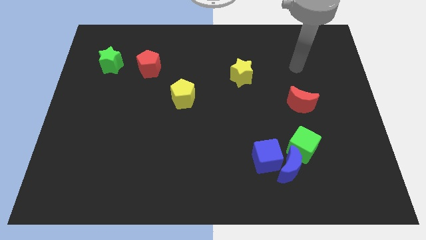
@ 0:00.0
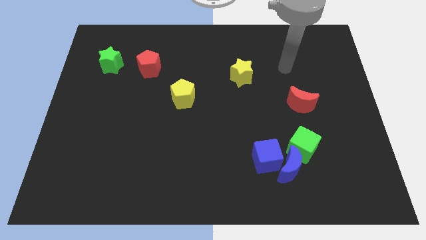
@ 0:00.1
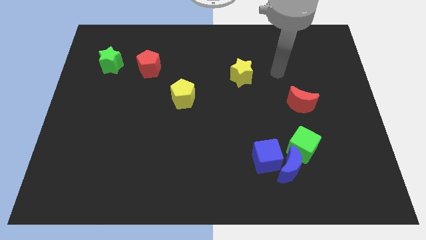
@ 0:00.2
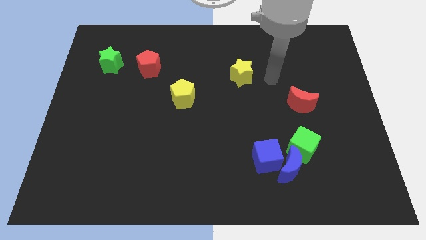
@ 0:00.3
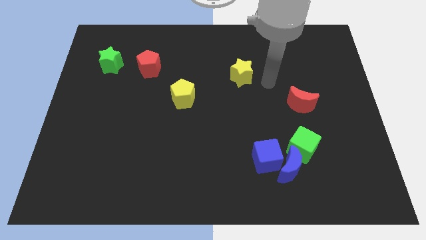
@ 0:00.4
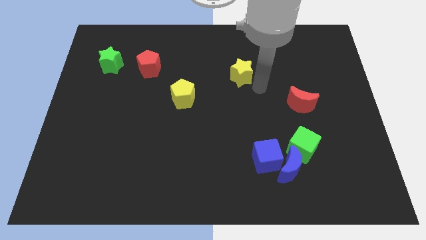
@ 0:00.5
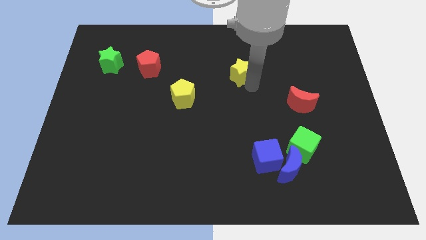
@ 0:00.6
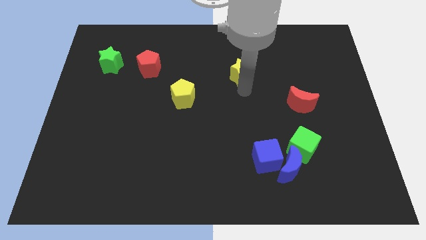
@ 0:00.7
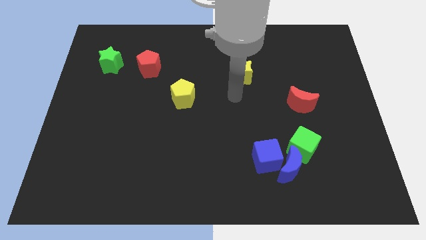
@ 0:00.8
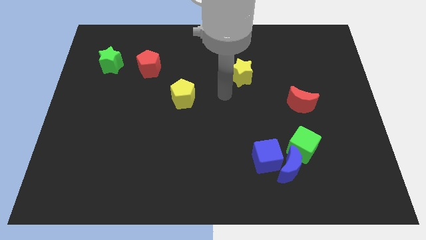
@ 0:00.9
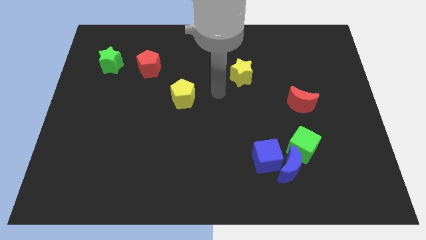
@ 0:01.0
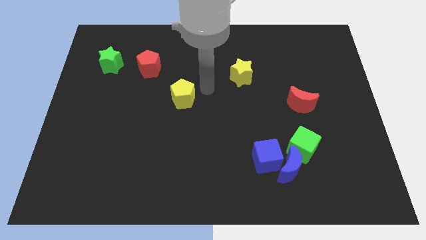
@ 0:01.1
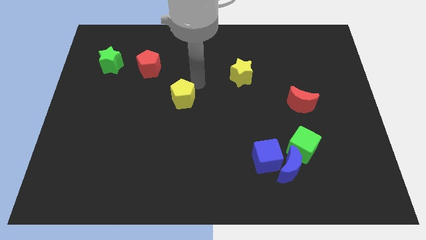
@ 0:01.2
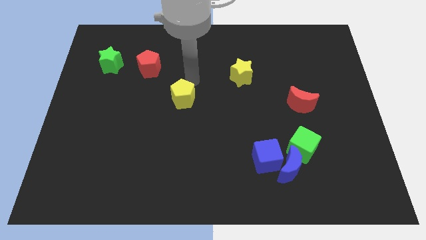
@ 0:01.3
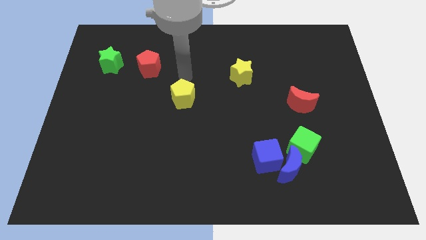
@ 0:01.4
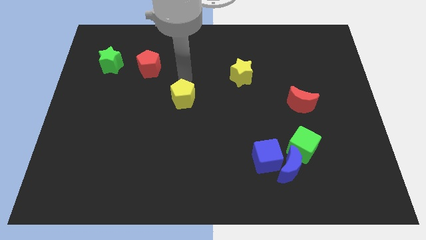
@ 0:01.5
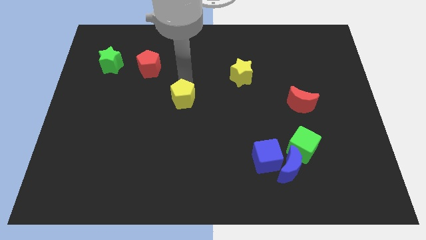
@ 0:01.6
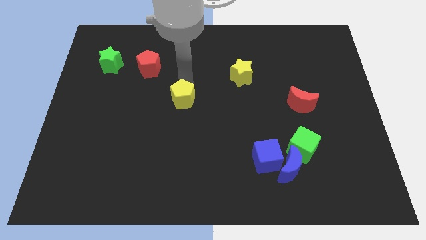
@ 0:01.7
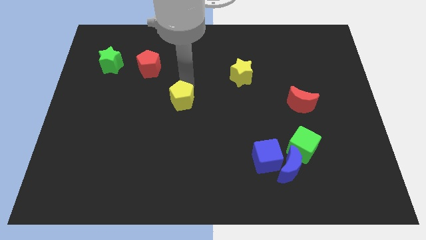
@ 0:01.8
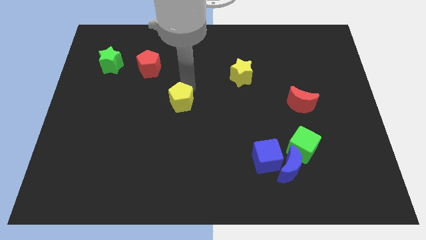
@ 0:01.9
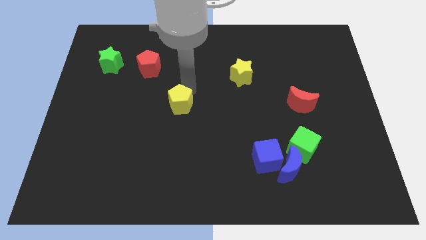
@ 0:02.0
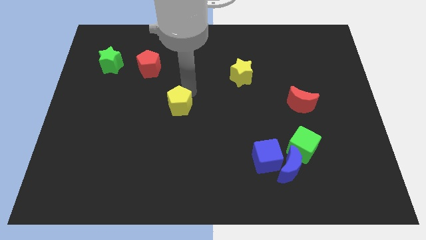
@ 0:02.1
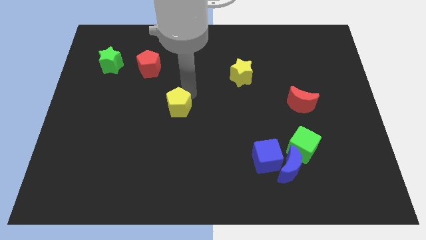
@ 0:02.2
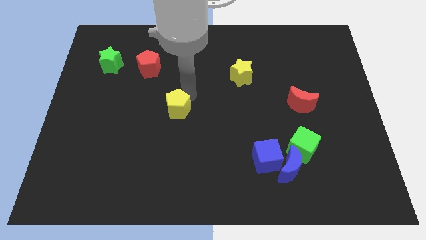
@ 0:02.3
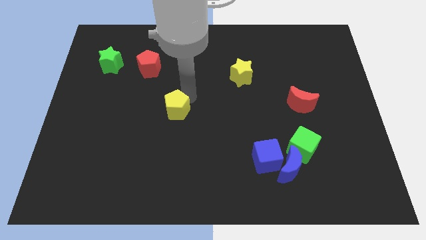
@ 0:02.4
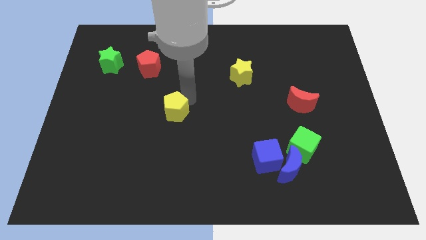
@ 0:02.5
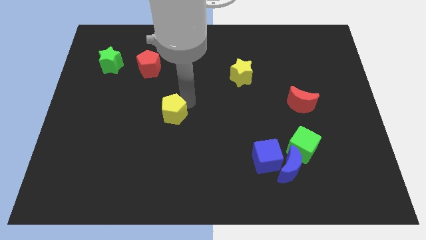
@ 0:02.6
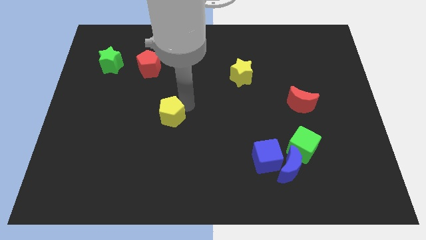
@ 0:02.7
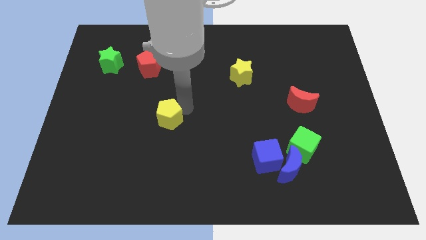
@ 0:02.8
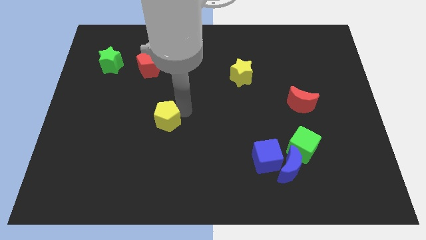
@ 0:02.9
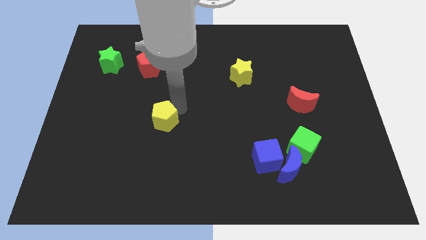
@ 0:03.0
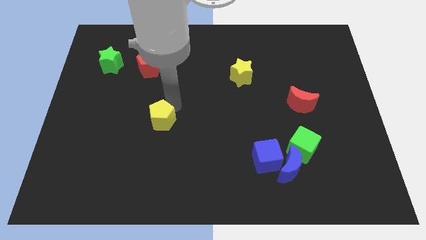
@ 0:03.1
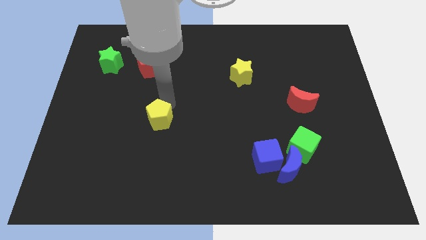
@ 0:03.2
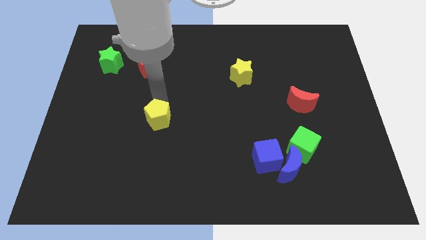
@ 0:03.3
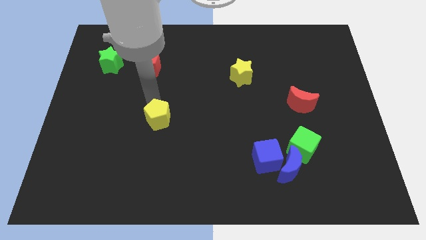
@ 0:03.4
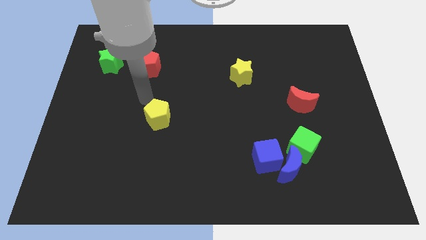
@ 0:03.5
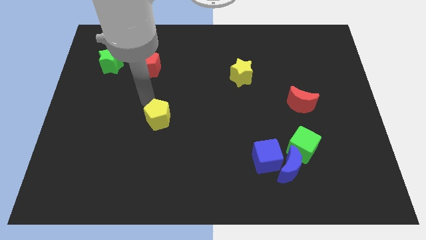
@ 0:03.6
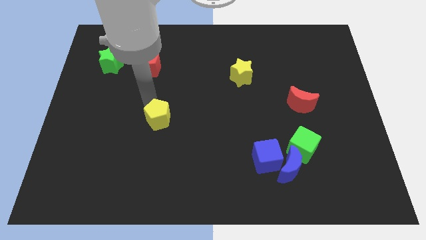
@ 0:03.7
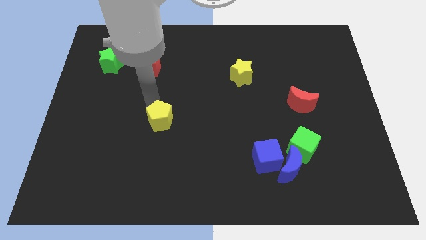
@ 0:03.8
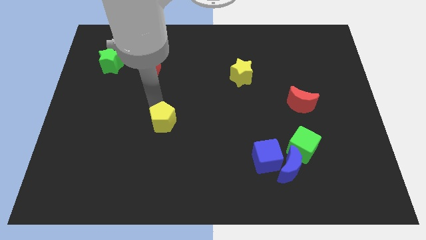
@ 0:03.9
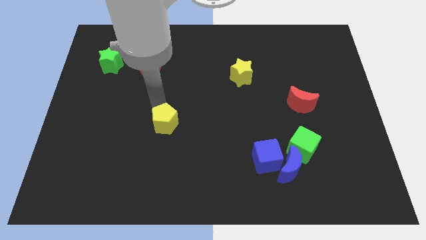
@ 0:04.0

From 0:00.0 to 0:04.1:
slightly push the yellow pentagon downwards

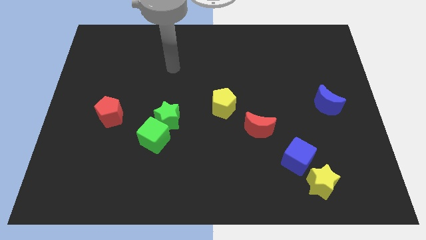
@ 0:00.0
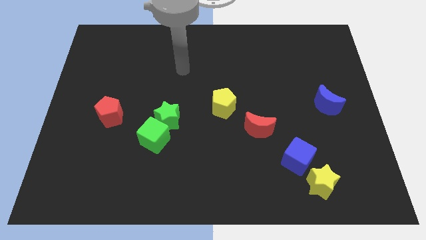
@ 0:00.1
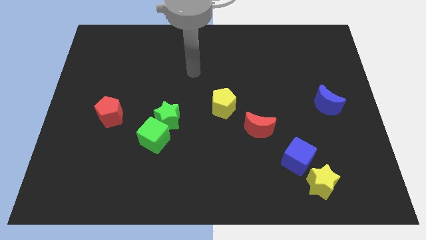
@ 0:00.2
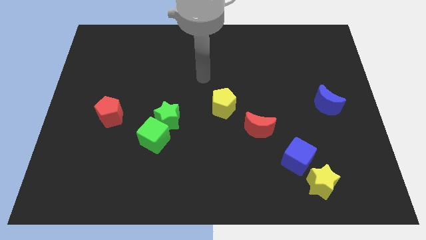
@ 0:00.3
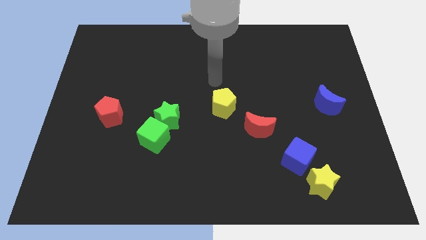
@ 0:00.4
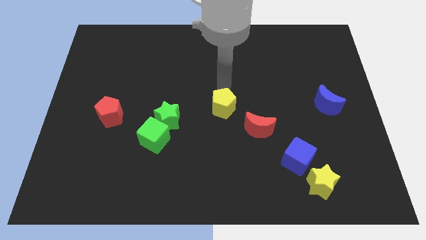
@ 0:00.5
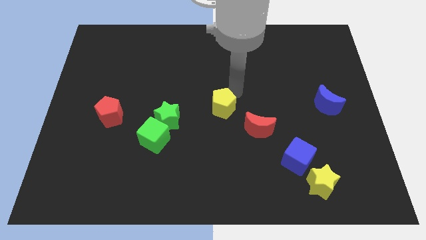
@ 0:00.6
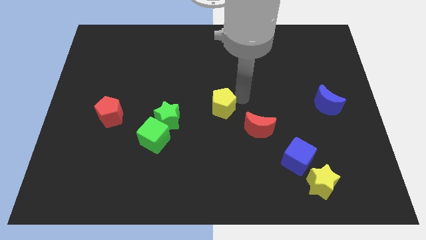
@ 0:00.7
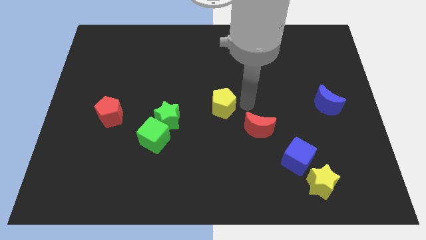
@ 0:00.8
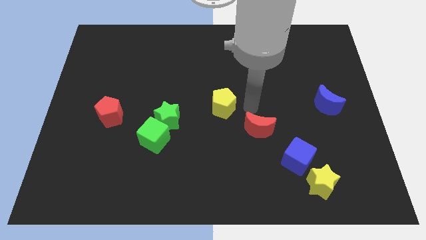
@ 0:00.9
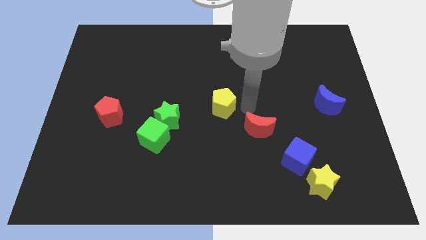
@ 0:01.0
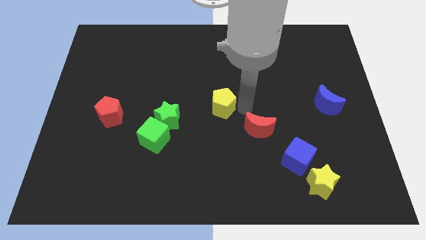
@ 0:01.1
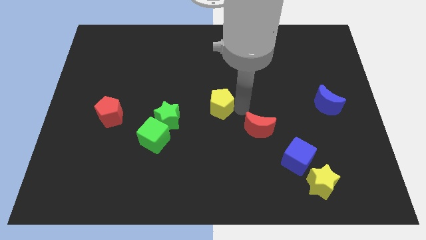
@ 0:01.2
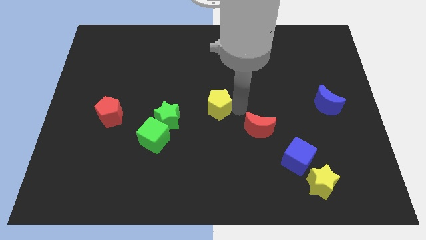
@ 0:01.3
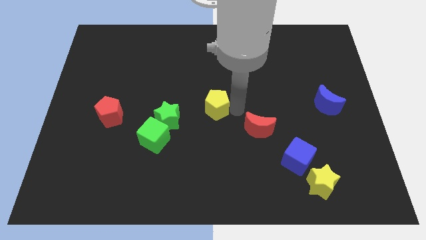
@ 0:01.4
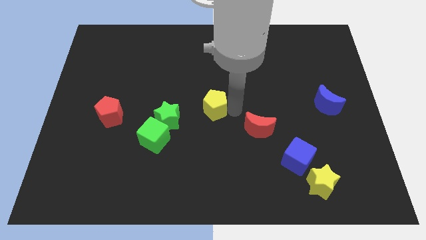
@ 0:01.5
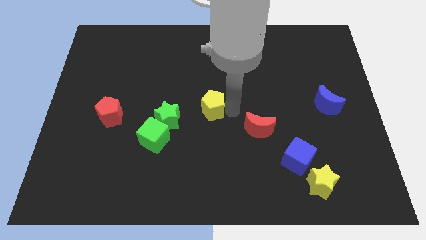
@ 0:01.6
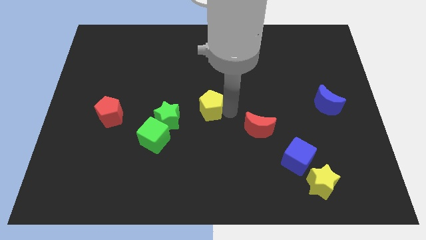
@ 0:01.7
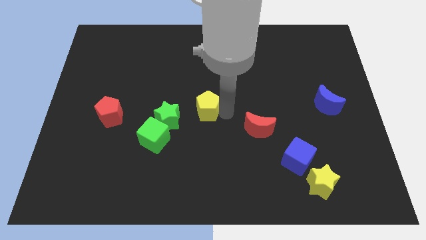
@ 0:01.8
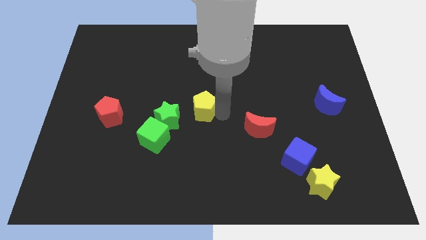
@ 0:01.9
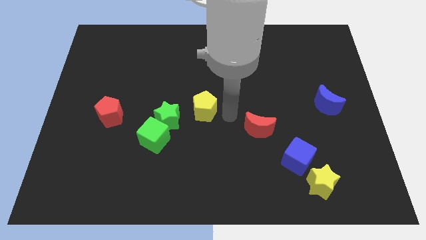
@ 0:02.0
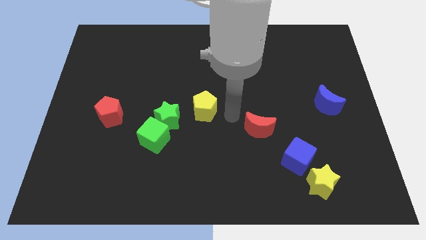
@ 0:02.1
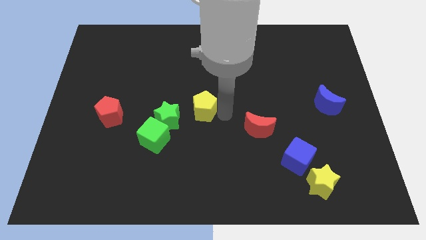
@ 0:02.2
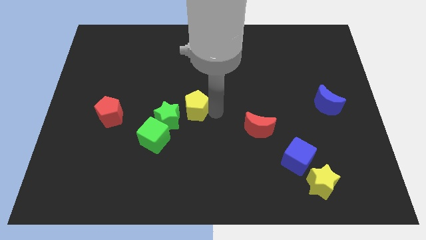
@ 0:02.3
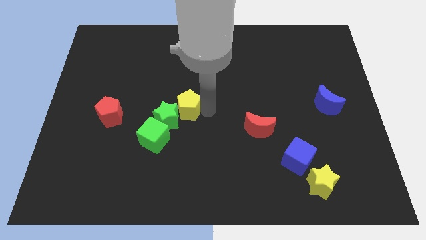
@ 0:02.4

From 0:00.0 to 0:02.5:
move the yellow pentagon to the left slightly

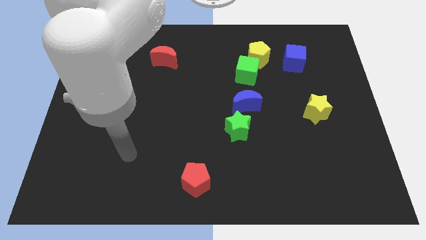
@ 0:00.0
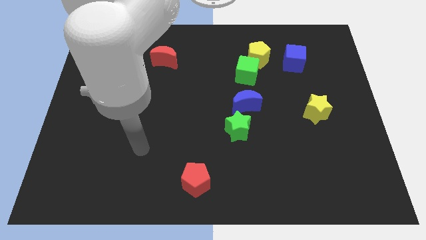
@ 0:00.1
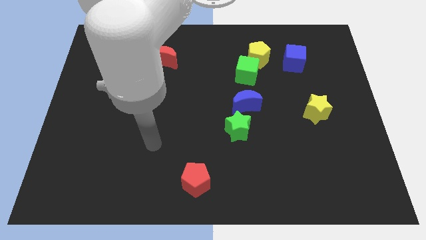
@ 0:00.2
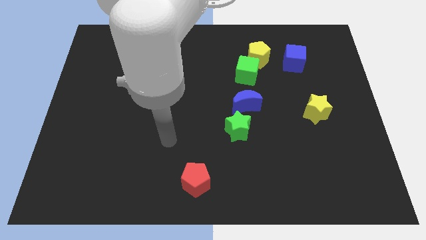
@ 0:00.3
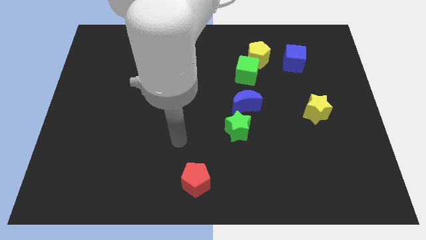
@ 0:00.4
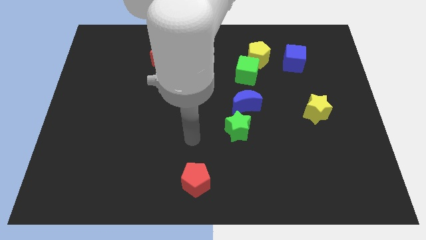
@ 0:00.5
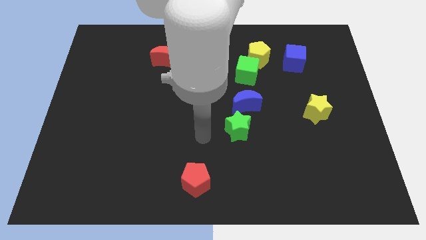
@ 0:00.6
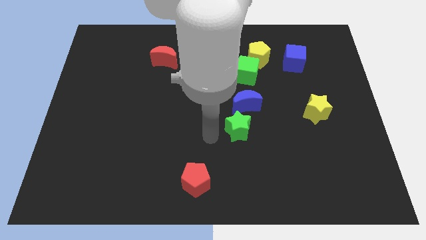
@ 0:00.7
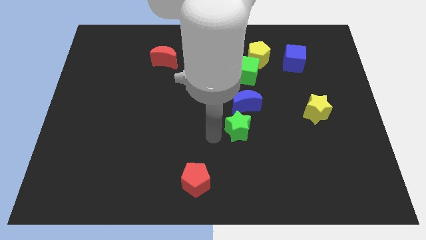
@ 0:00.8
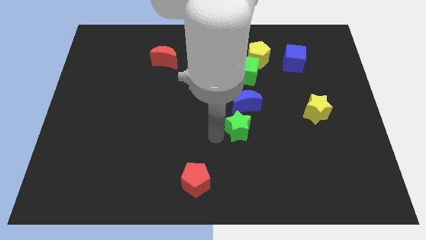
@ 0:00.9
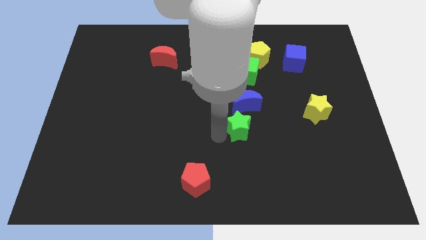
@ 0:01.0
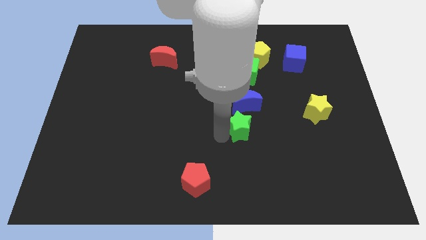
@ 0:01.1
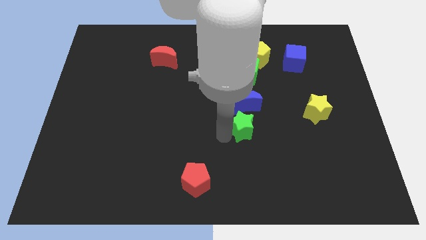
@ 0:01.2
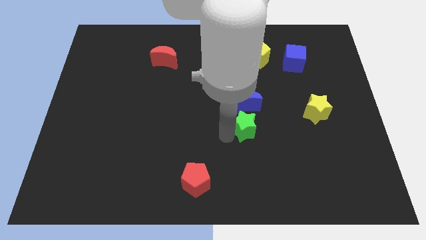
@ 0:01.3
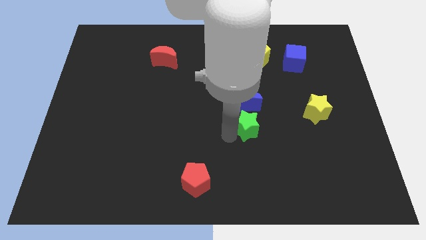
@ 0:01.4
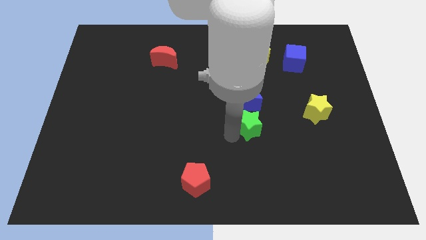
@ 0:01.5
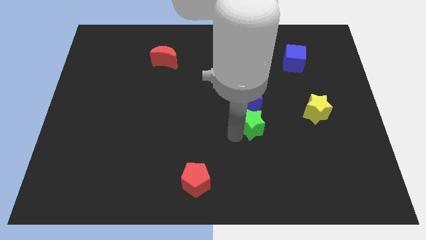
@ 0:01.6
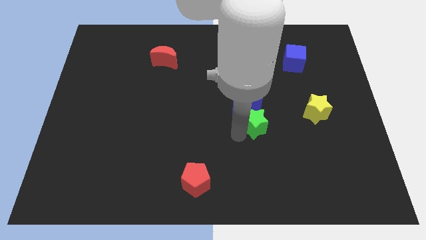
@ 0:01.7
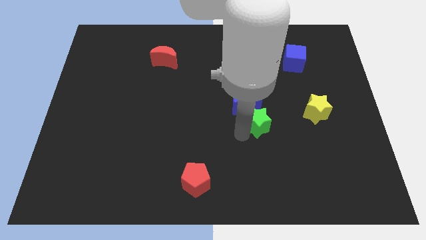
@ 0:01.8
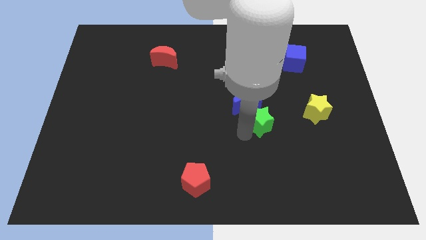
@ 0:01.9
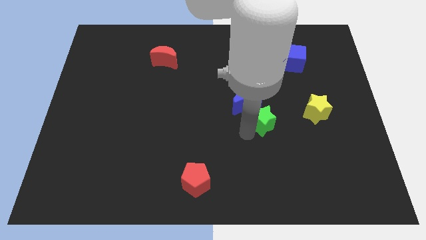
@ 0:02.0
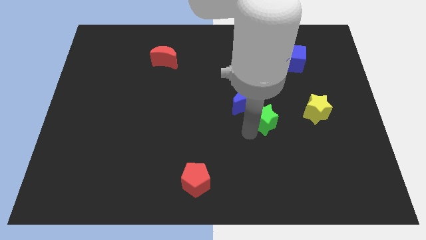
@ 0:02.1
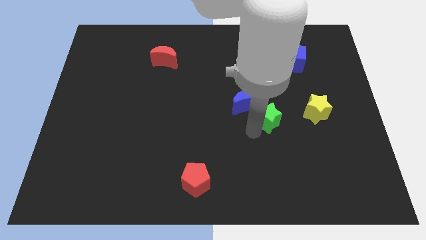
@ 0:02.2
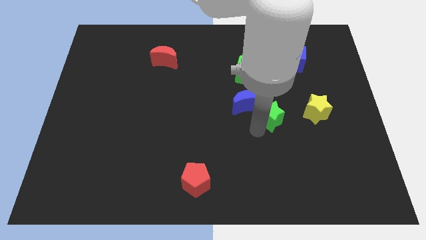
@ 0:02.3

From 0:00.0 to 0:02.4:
push the green star diagonally upwards and right a little
